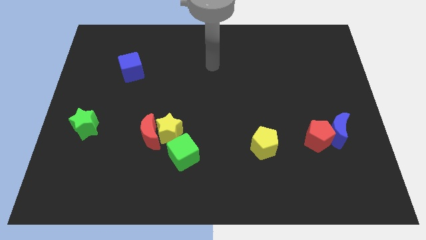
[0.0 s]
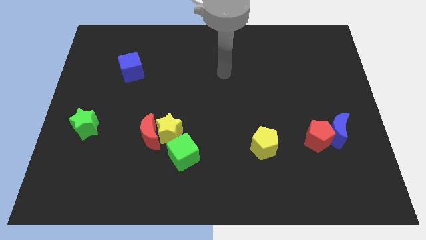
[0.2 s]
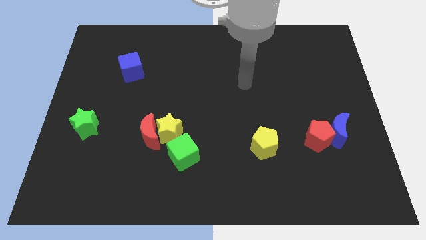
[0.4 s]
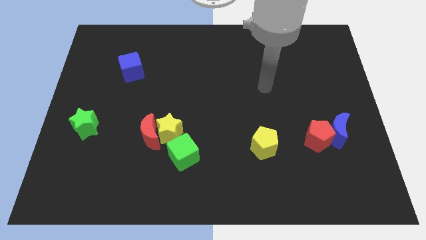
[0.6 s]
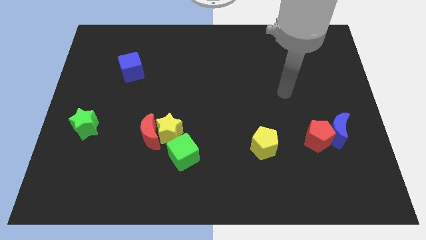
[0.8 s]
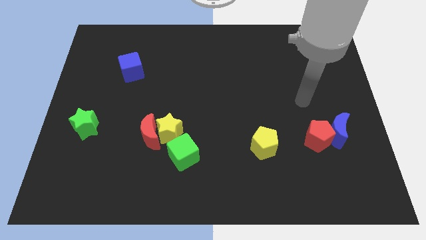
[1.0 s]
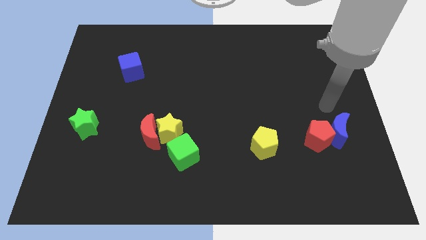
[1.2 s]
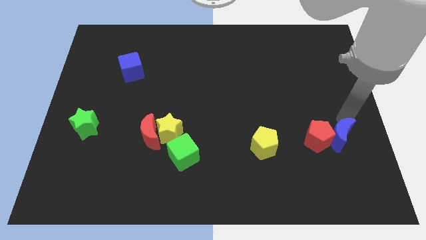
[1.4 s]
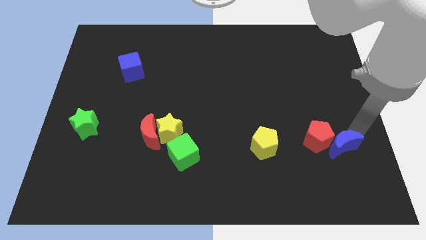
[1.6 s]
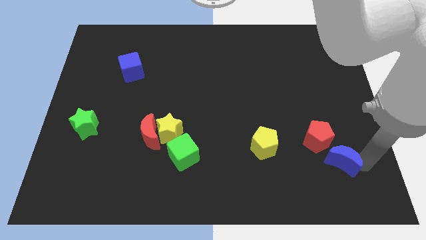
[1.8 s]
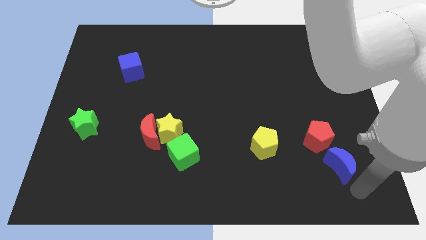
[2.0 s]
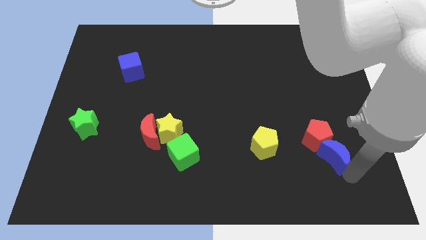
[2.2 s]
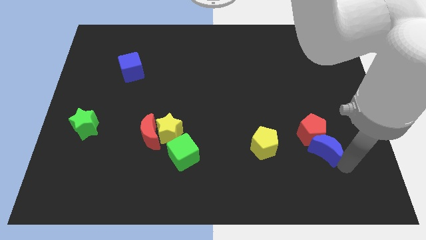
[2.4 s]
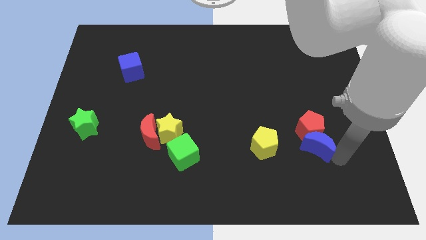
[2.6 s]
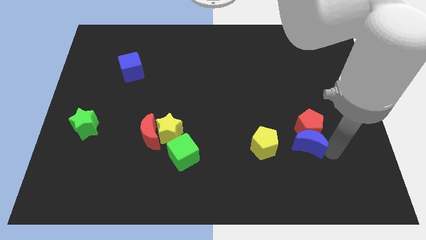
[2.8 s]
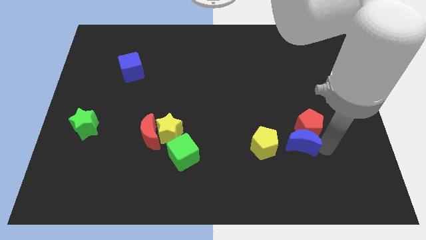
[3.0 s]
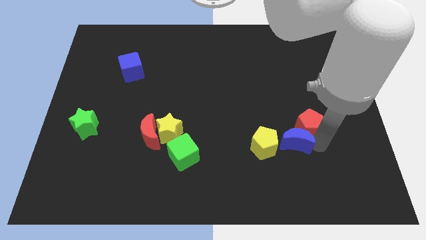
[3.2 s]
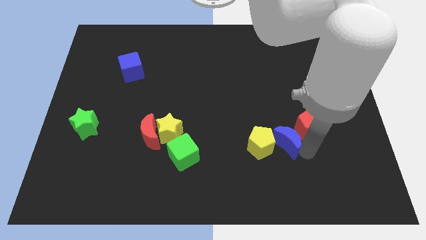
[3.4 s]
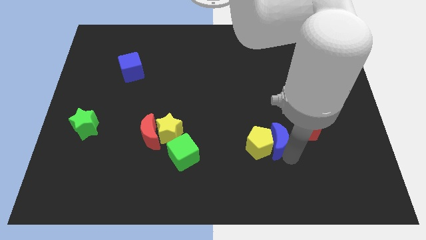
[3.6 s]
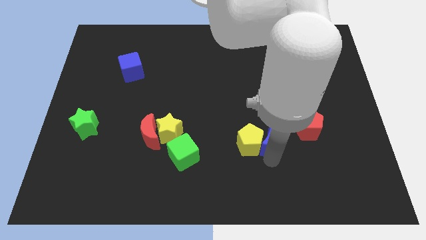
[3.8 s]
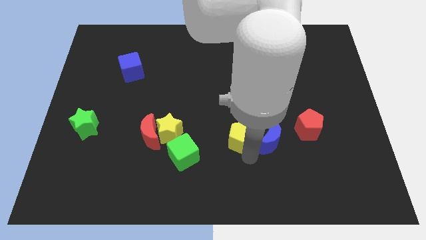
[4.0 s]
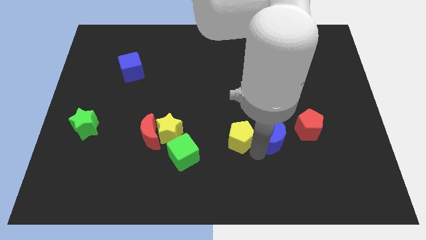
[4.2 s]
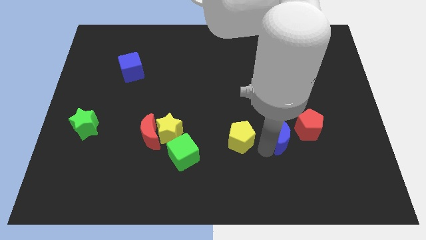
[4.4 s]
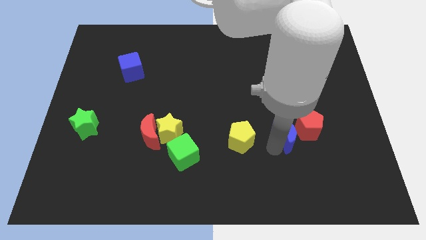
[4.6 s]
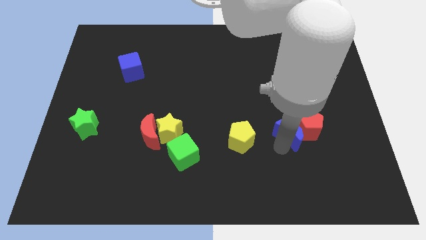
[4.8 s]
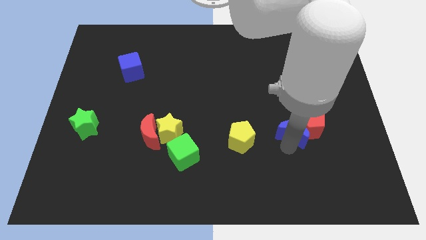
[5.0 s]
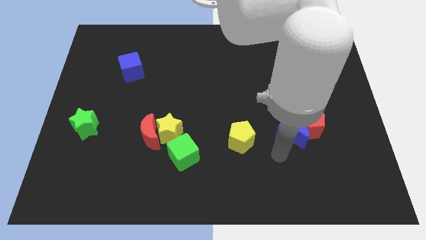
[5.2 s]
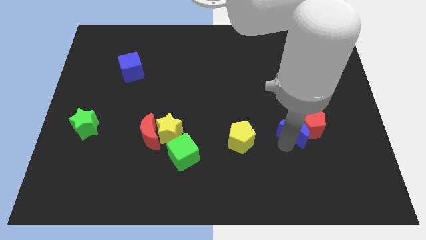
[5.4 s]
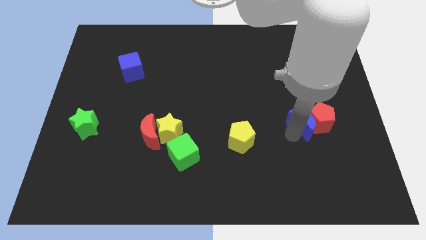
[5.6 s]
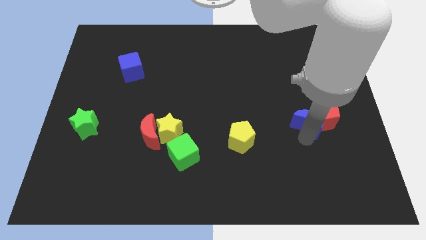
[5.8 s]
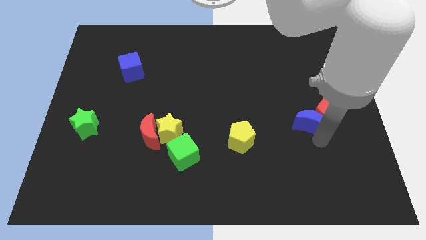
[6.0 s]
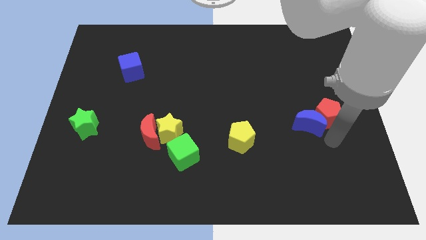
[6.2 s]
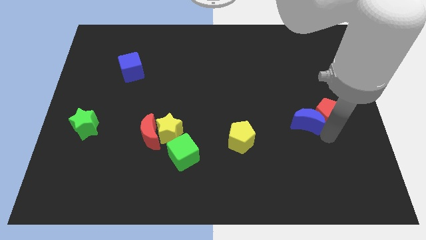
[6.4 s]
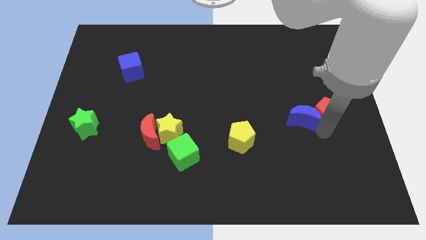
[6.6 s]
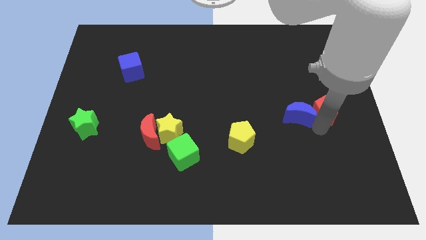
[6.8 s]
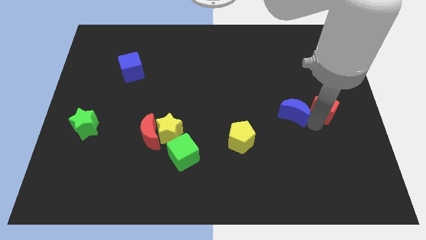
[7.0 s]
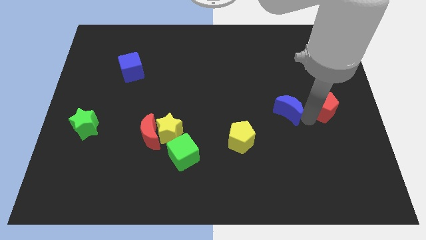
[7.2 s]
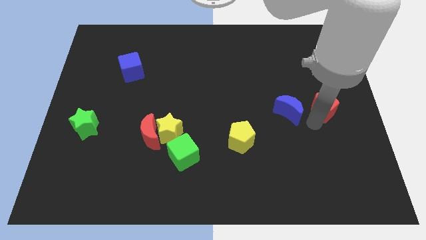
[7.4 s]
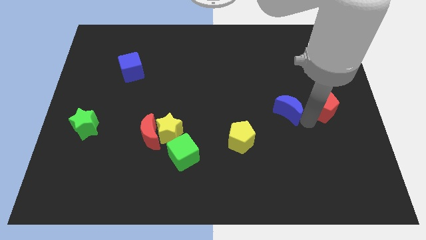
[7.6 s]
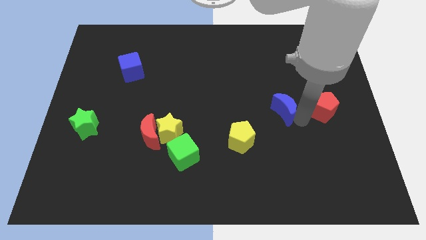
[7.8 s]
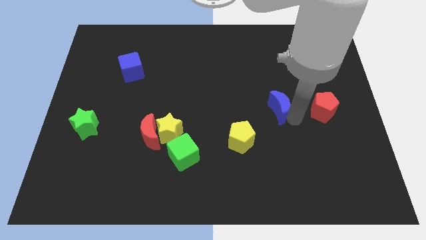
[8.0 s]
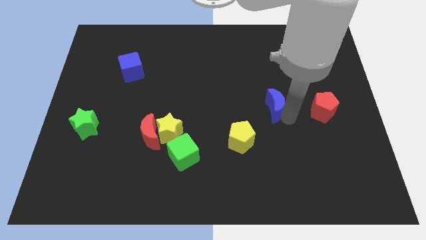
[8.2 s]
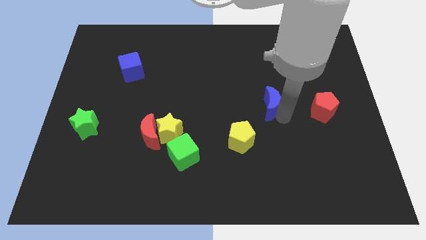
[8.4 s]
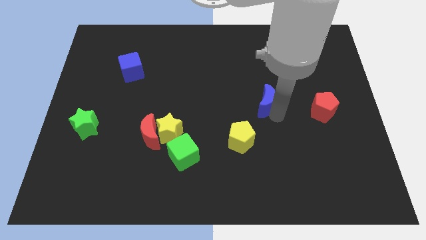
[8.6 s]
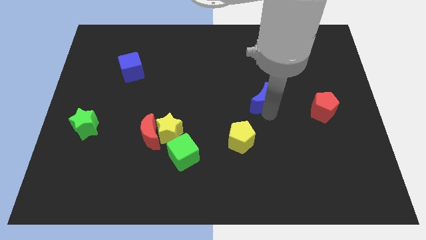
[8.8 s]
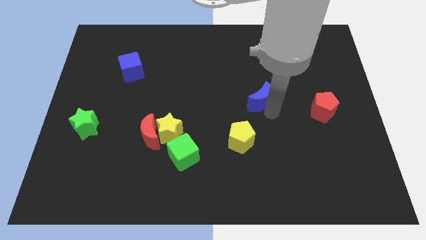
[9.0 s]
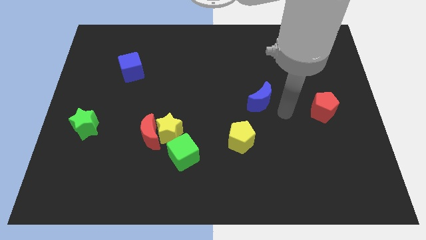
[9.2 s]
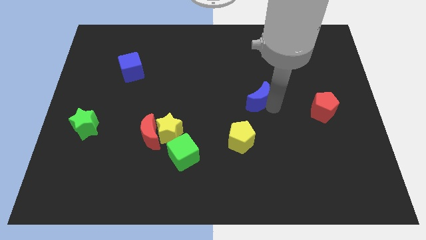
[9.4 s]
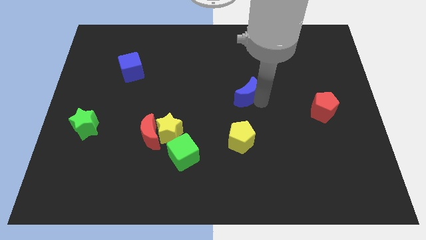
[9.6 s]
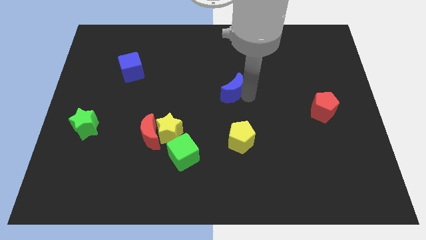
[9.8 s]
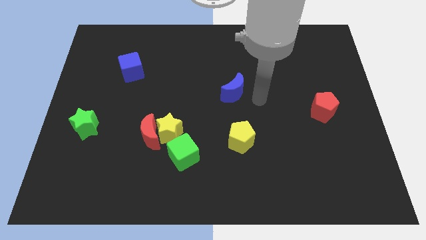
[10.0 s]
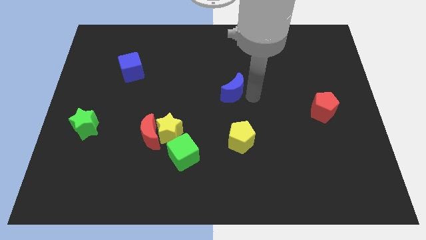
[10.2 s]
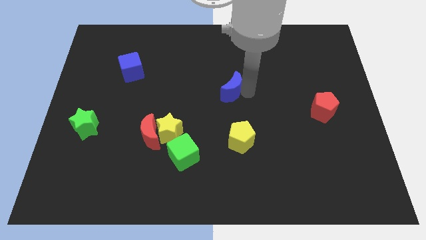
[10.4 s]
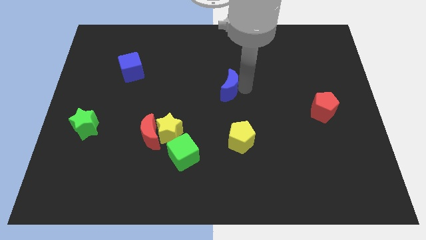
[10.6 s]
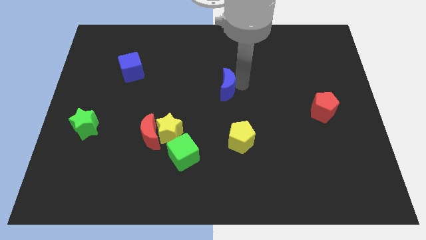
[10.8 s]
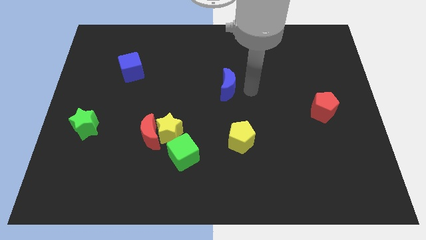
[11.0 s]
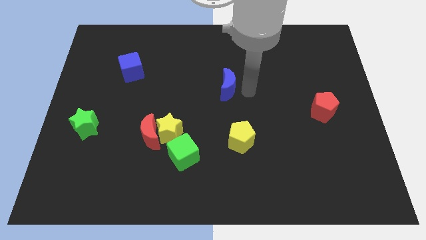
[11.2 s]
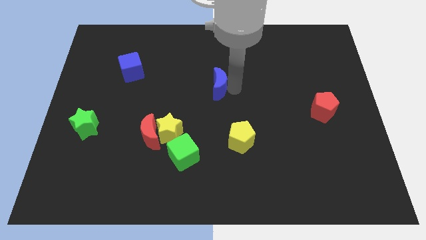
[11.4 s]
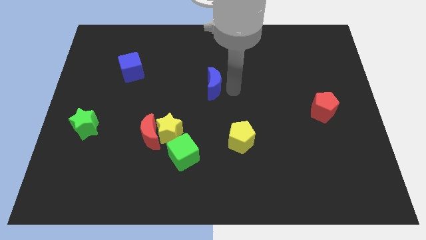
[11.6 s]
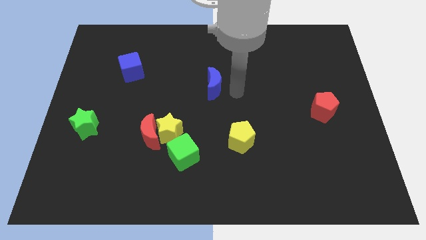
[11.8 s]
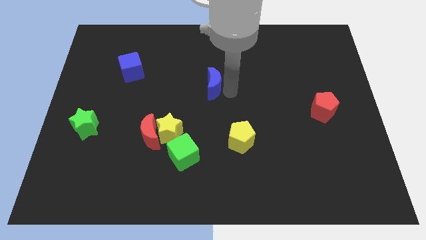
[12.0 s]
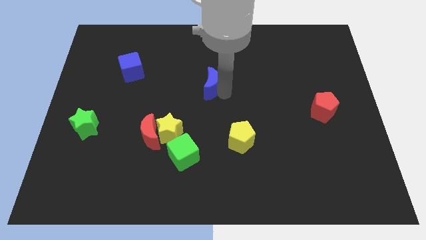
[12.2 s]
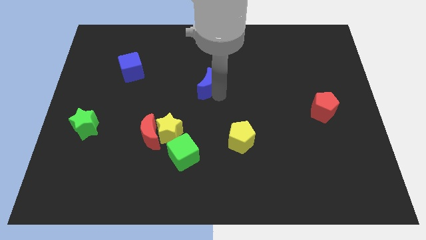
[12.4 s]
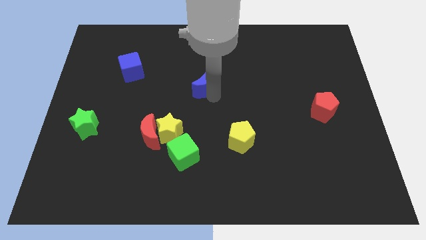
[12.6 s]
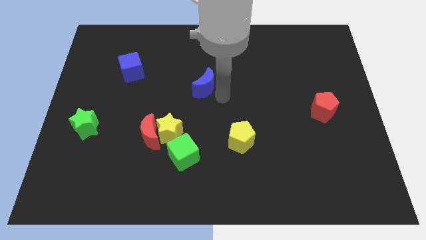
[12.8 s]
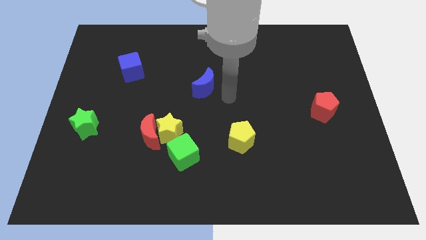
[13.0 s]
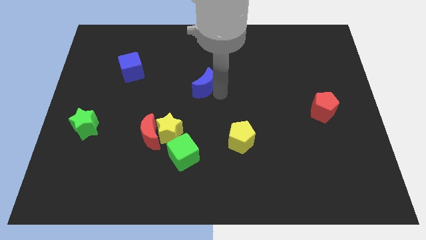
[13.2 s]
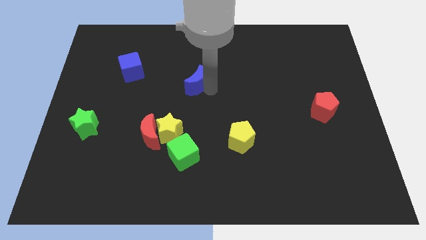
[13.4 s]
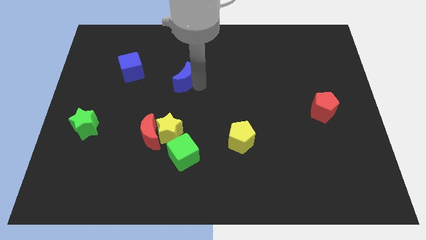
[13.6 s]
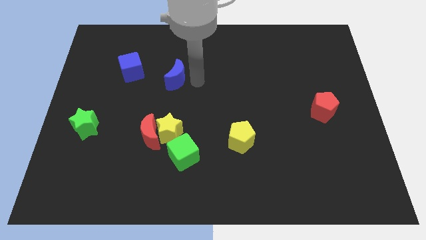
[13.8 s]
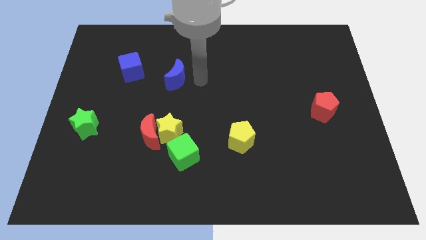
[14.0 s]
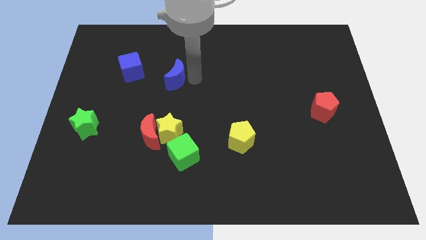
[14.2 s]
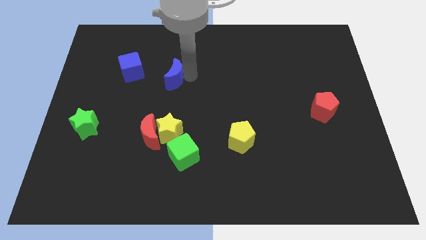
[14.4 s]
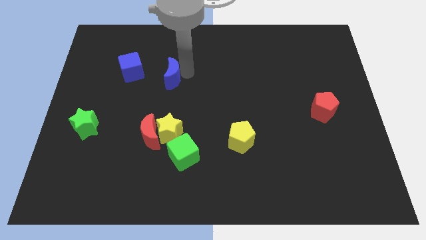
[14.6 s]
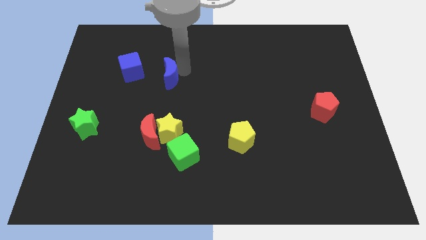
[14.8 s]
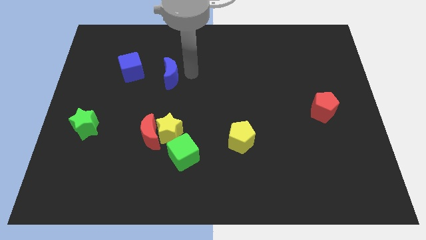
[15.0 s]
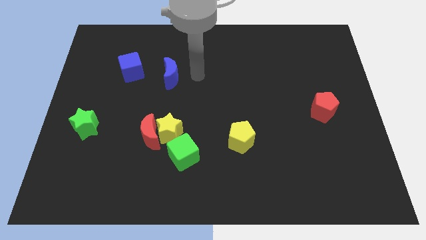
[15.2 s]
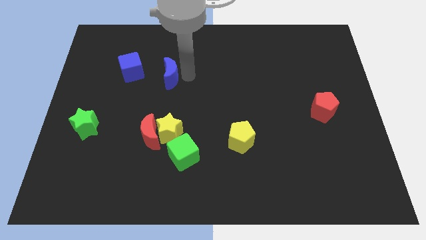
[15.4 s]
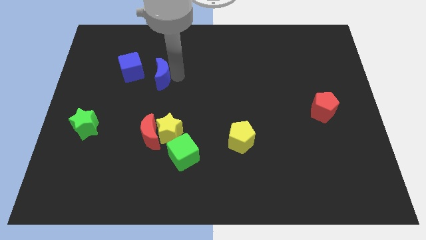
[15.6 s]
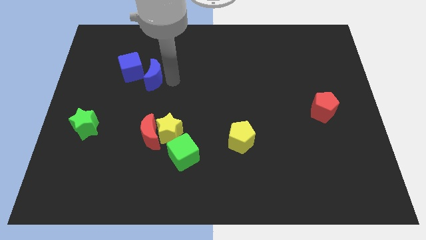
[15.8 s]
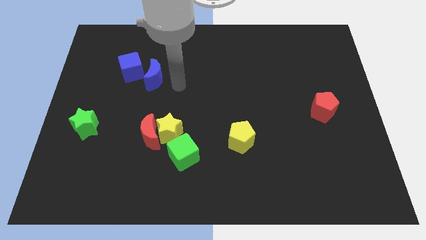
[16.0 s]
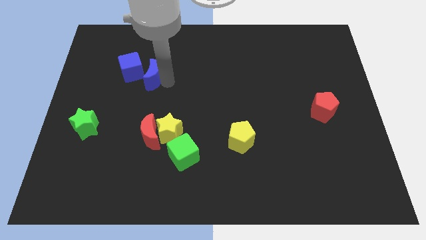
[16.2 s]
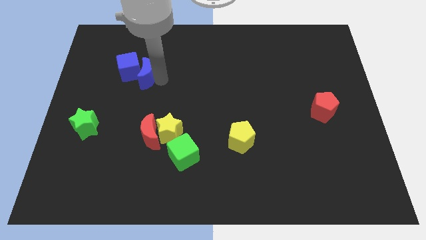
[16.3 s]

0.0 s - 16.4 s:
put the blue moon close to the blue cube
